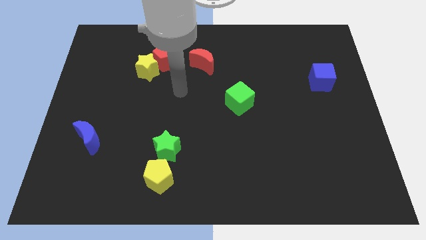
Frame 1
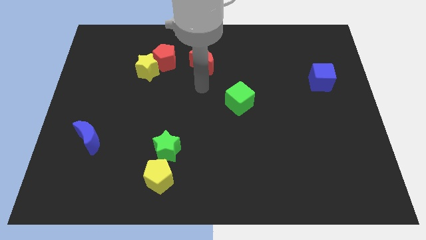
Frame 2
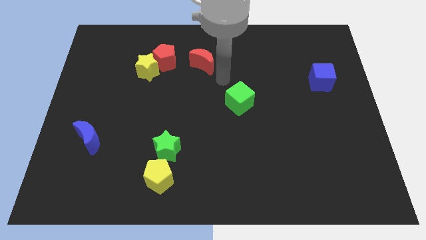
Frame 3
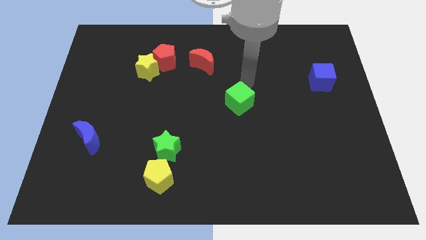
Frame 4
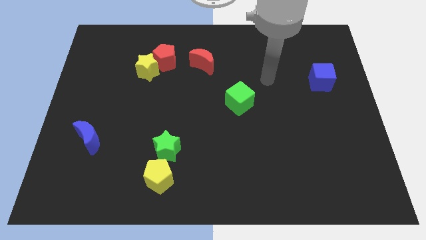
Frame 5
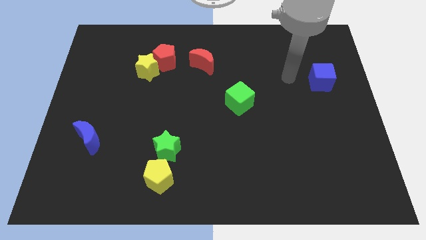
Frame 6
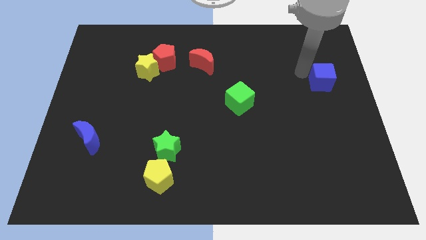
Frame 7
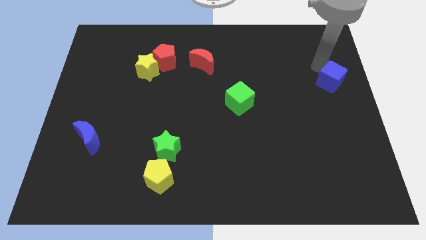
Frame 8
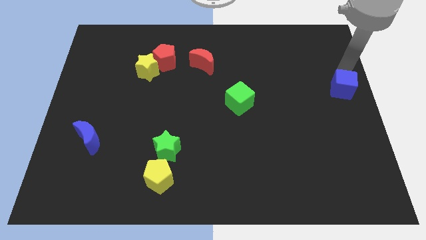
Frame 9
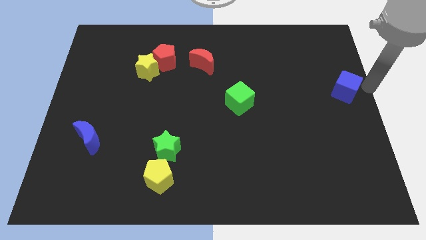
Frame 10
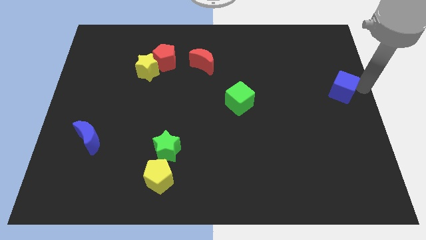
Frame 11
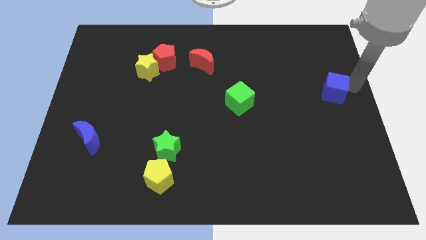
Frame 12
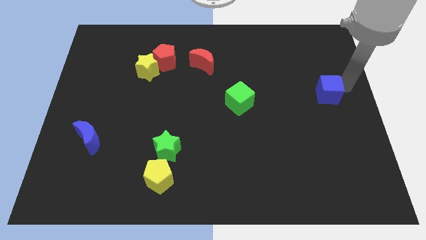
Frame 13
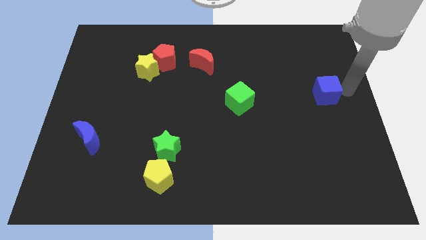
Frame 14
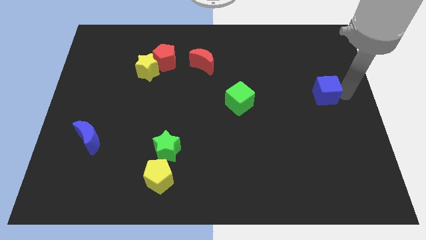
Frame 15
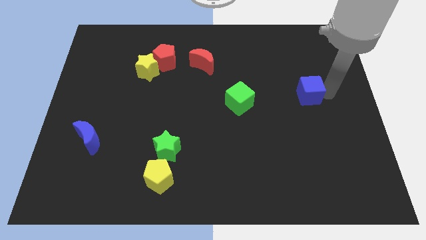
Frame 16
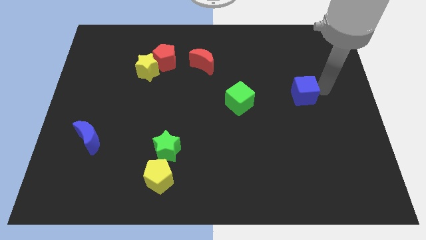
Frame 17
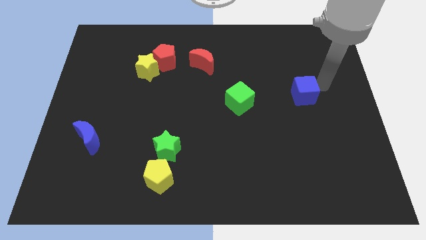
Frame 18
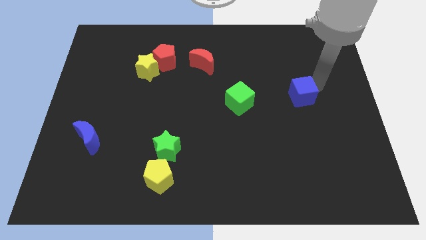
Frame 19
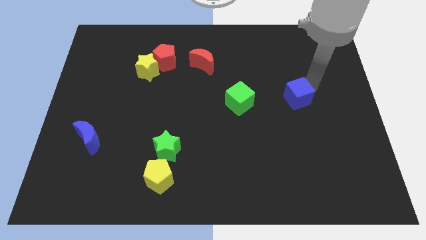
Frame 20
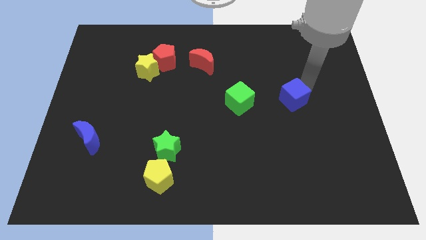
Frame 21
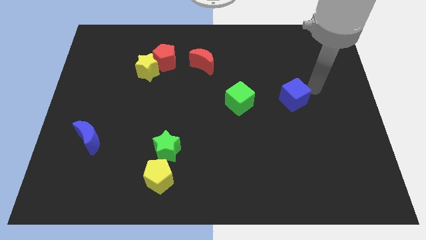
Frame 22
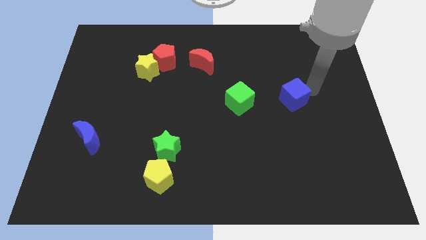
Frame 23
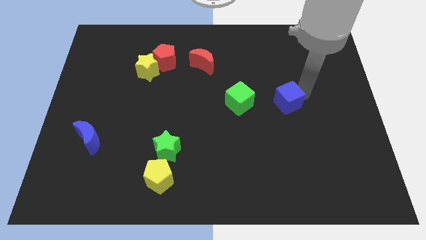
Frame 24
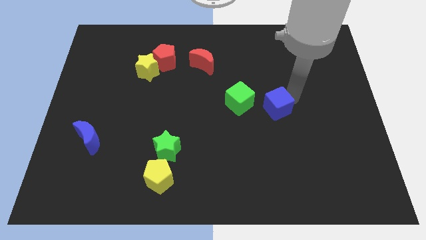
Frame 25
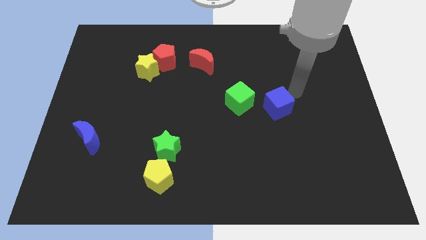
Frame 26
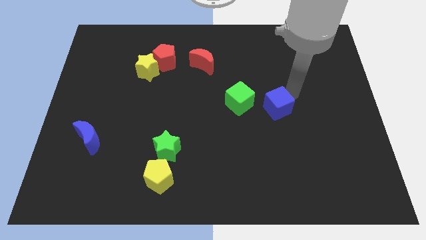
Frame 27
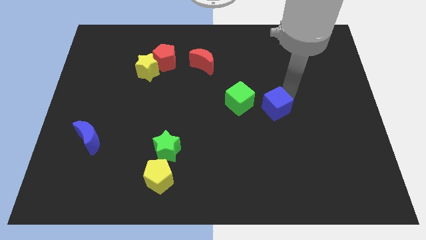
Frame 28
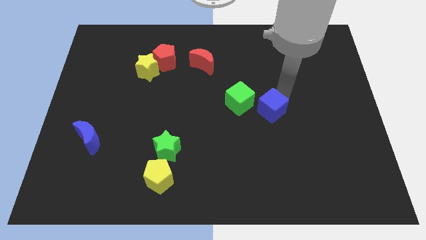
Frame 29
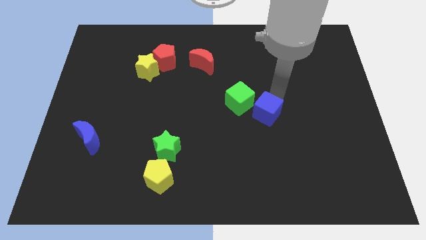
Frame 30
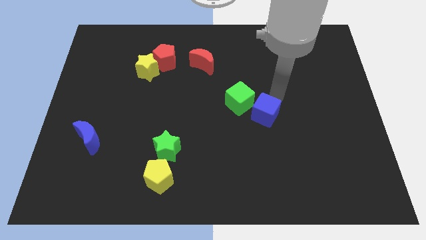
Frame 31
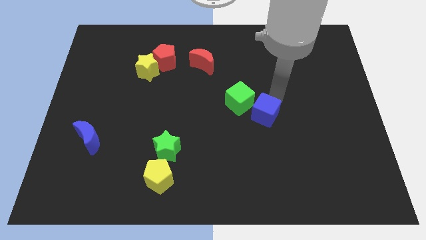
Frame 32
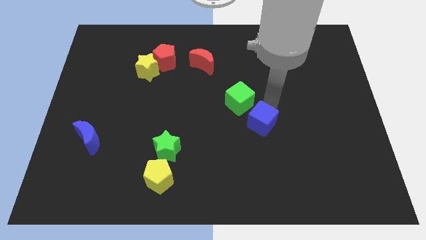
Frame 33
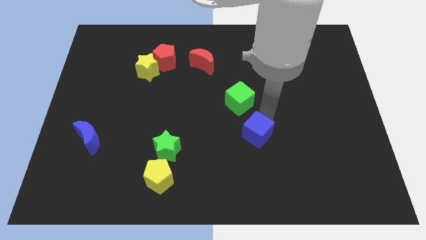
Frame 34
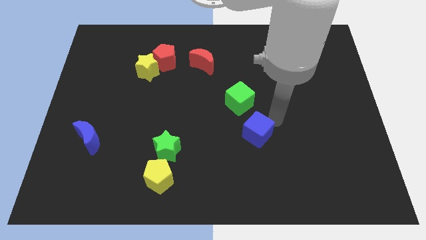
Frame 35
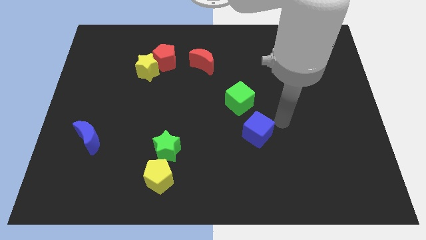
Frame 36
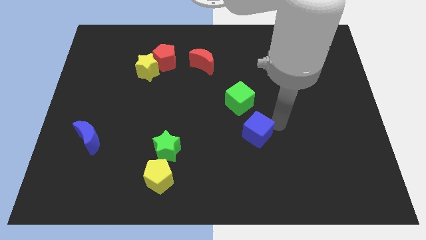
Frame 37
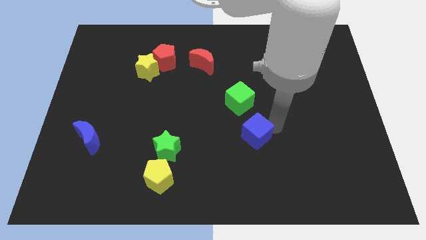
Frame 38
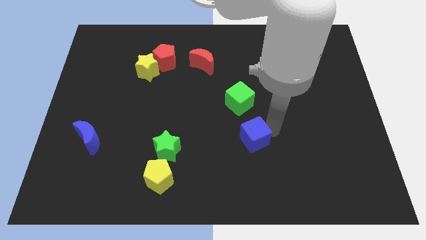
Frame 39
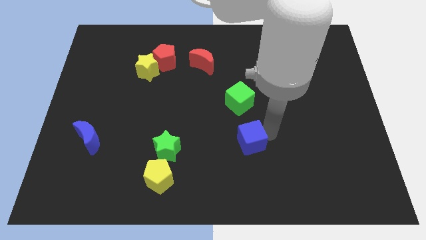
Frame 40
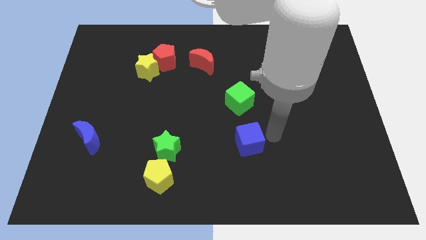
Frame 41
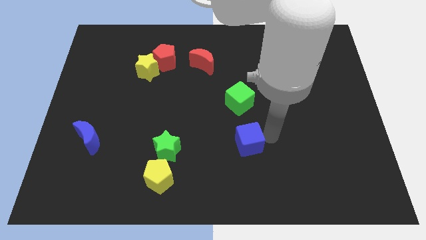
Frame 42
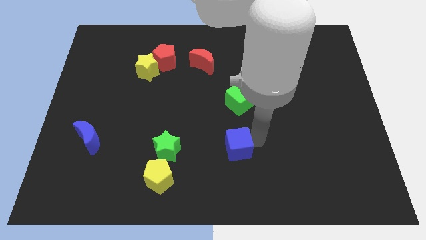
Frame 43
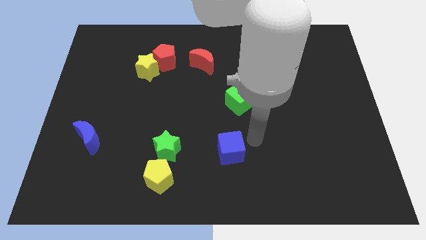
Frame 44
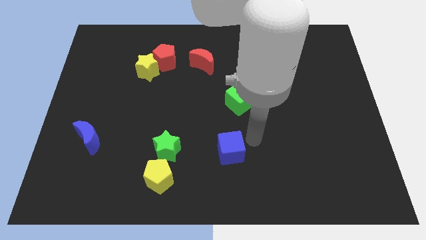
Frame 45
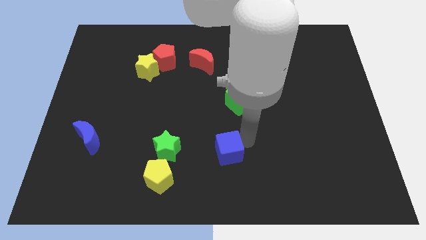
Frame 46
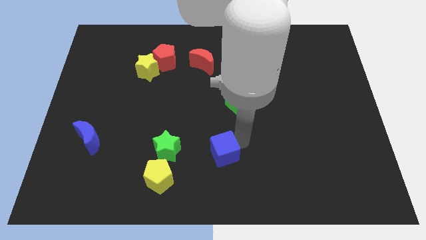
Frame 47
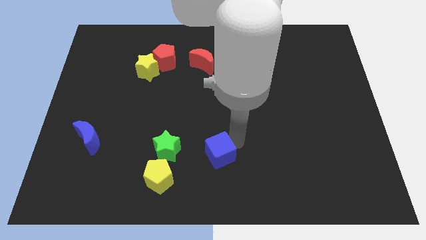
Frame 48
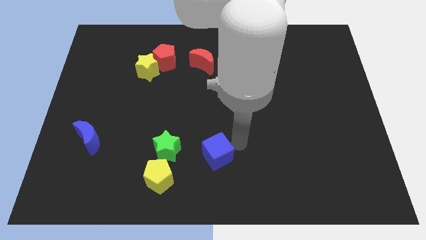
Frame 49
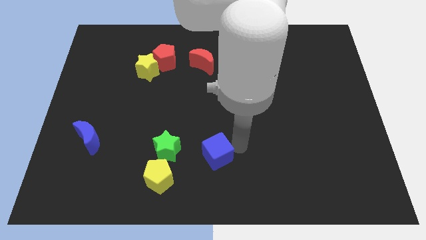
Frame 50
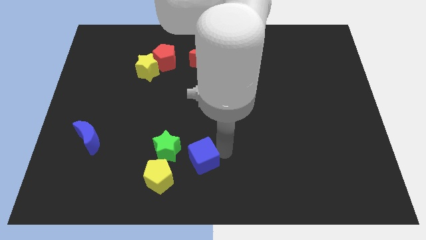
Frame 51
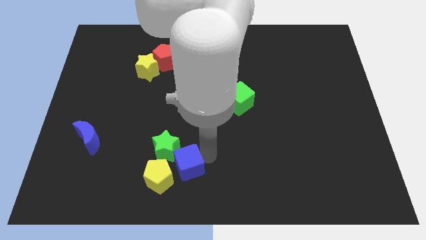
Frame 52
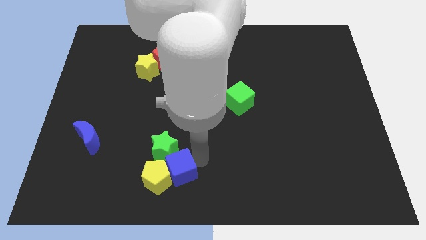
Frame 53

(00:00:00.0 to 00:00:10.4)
move the blue cube close to the yellow pentagon

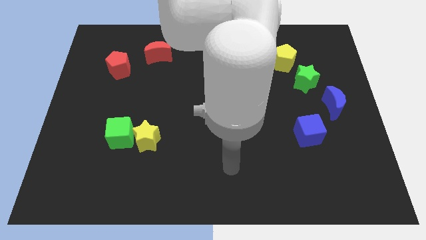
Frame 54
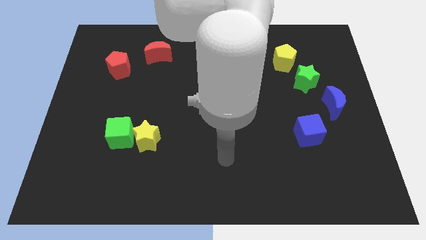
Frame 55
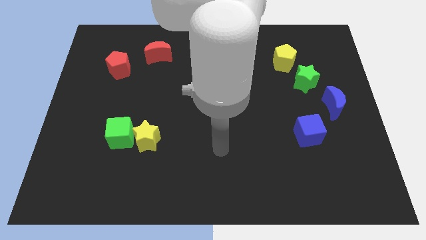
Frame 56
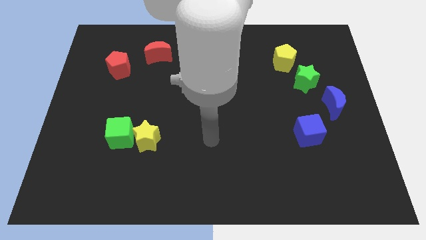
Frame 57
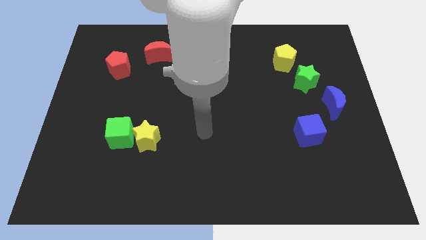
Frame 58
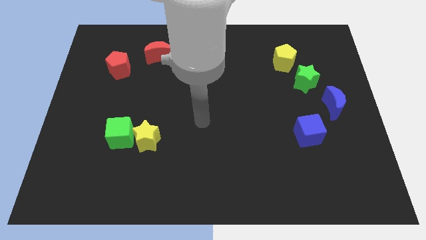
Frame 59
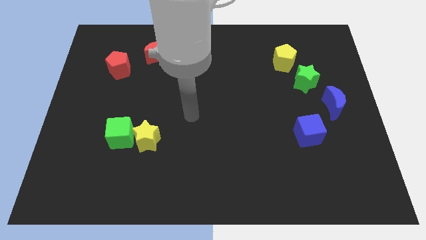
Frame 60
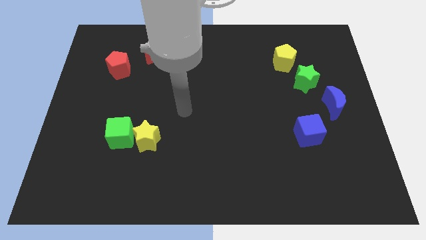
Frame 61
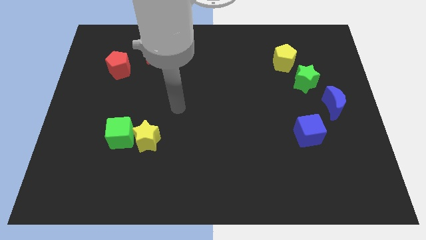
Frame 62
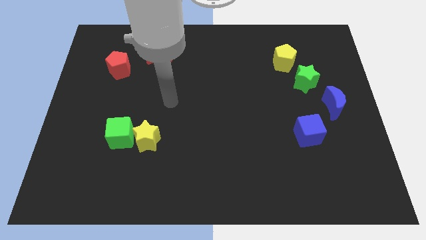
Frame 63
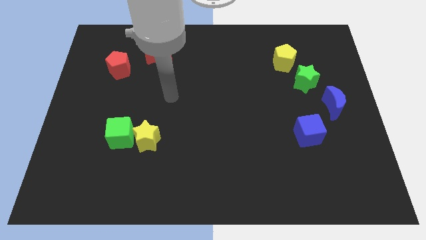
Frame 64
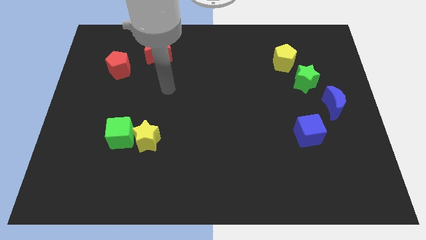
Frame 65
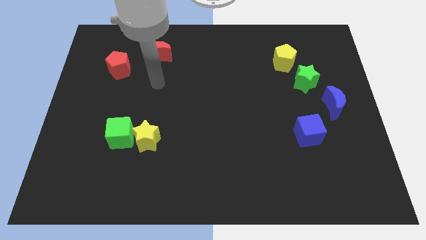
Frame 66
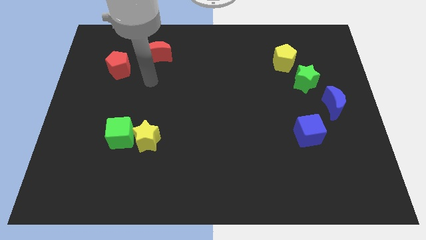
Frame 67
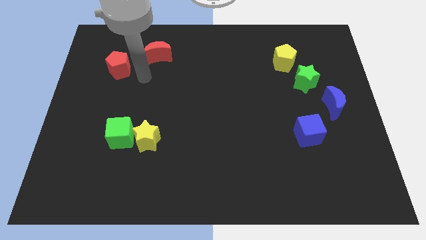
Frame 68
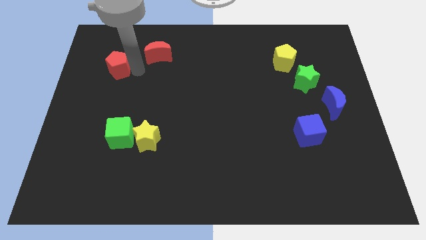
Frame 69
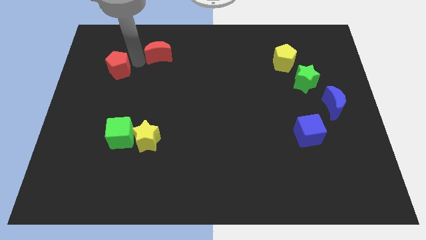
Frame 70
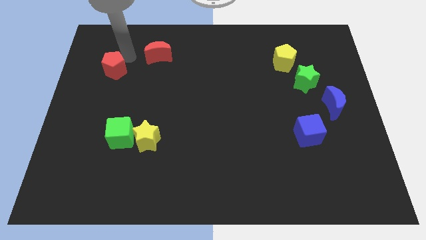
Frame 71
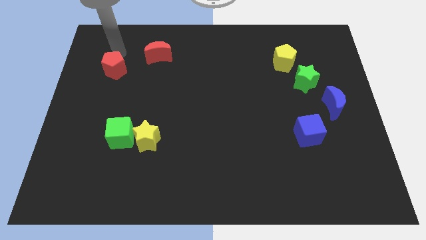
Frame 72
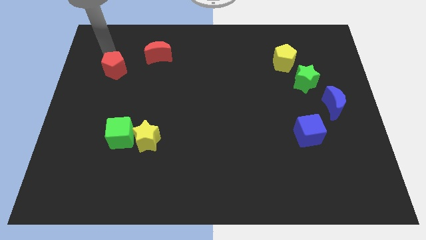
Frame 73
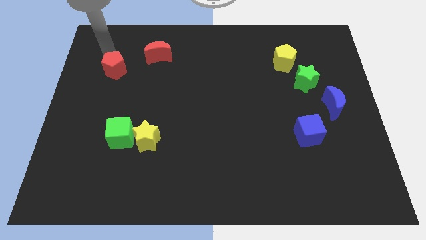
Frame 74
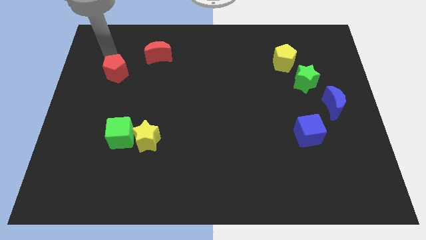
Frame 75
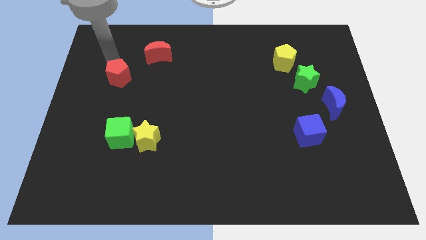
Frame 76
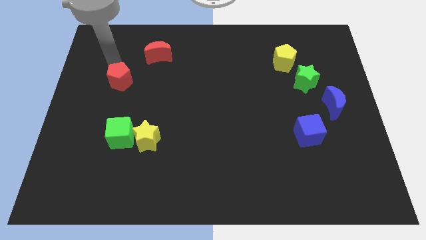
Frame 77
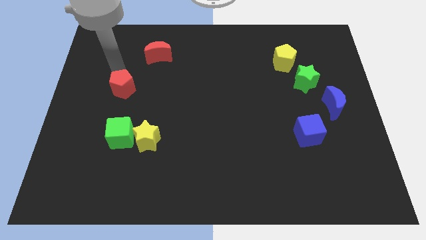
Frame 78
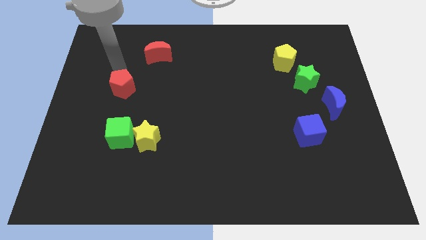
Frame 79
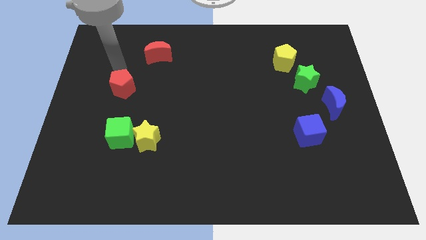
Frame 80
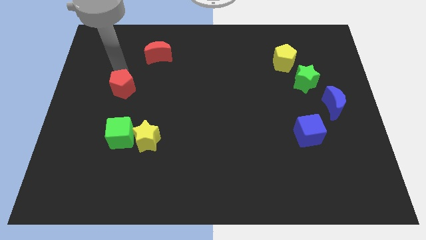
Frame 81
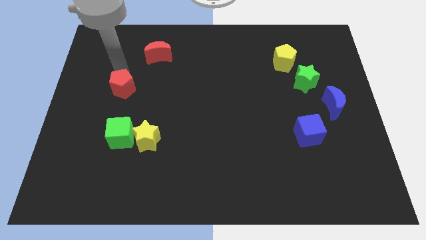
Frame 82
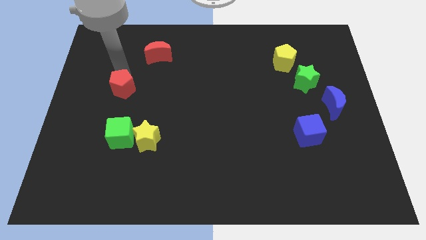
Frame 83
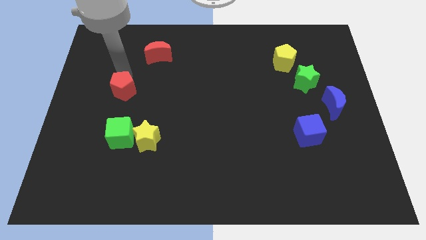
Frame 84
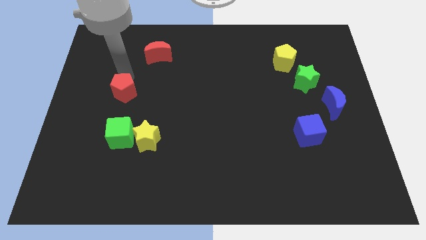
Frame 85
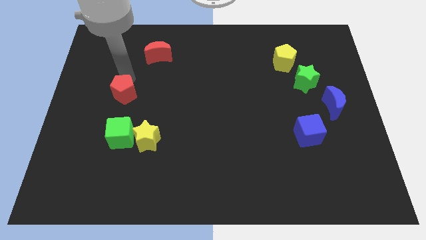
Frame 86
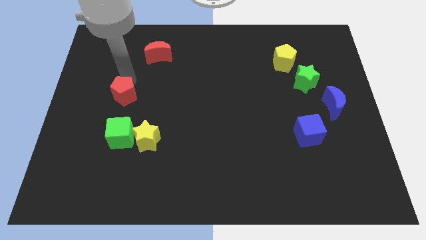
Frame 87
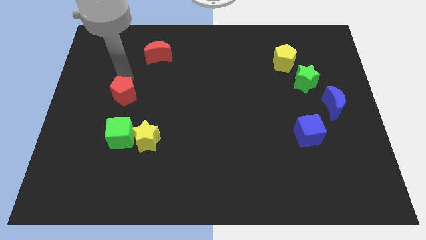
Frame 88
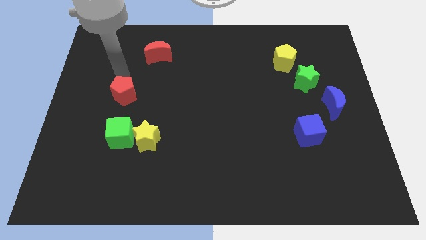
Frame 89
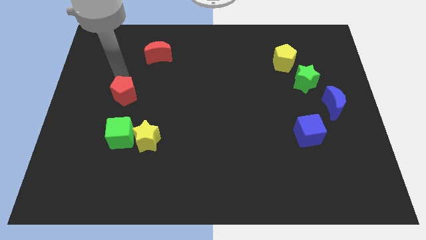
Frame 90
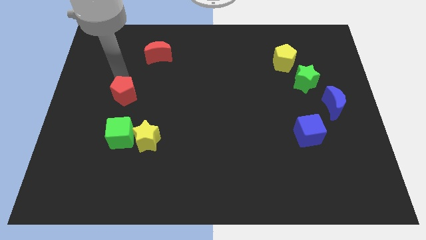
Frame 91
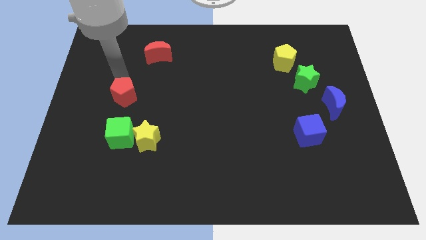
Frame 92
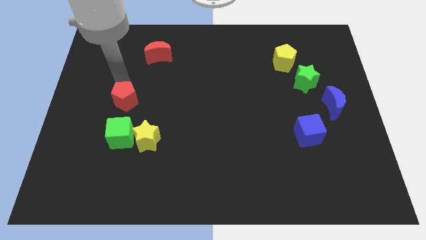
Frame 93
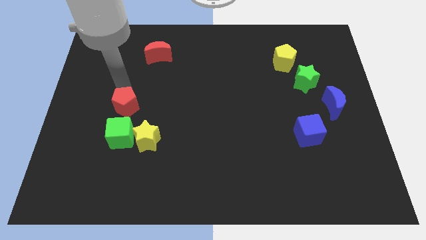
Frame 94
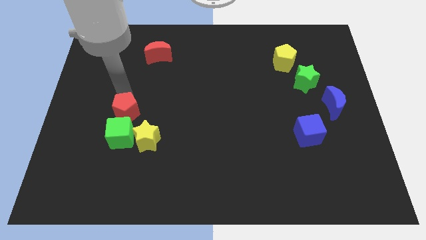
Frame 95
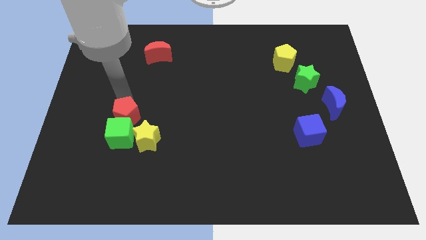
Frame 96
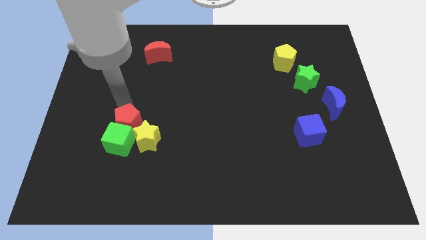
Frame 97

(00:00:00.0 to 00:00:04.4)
move the red pentagon towards the yellow star
